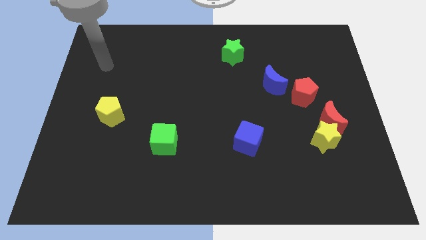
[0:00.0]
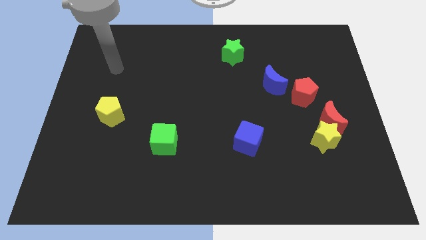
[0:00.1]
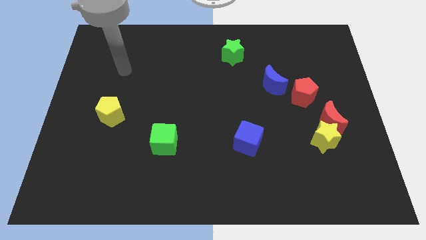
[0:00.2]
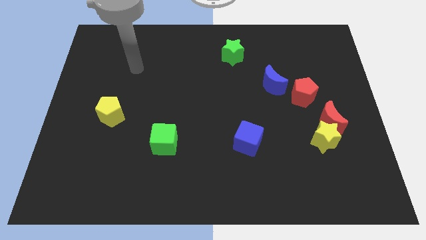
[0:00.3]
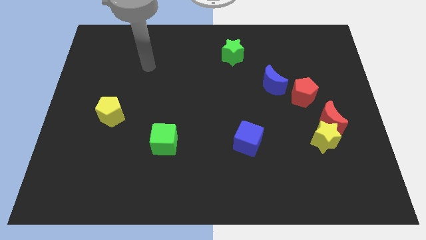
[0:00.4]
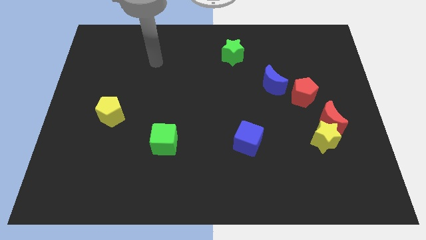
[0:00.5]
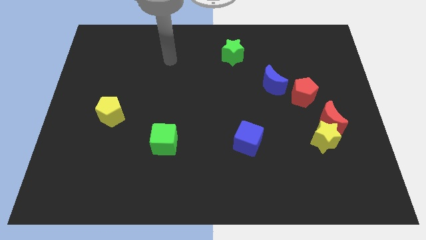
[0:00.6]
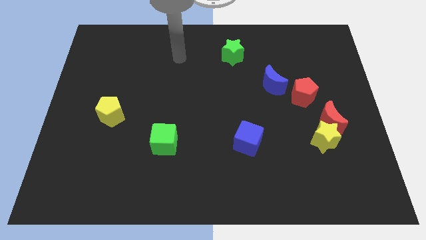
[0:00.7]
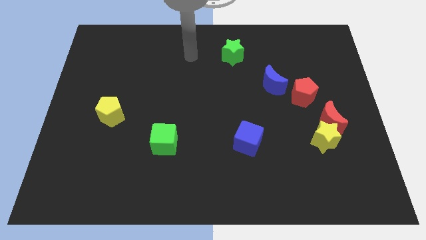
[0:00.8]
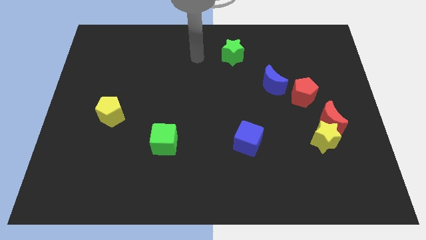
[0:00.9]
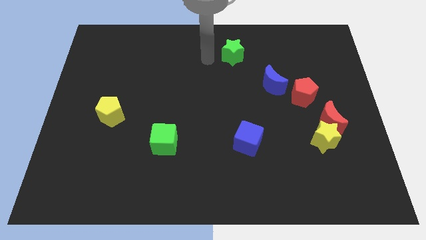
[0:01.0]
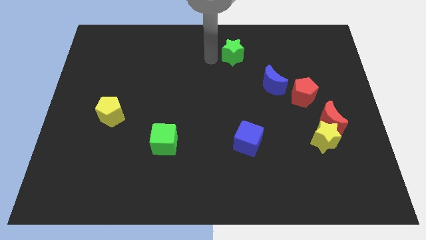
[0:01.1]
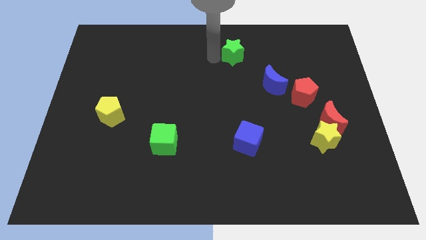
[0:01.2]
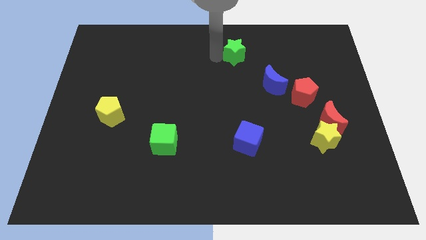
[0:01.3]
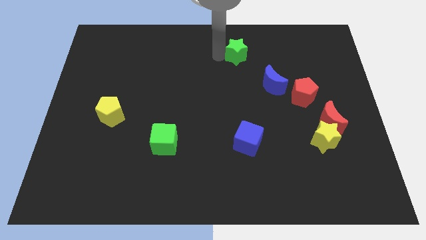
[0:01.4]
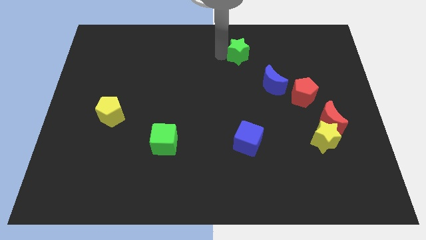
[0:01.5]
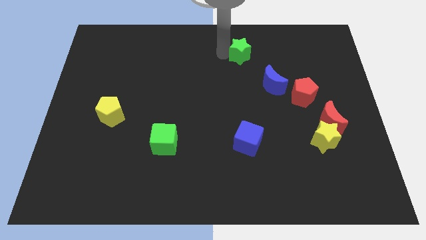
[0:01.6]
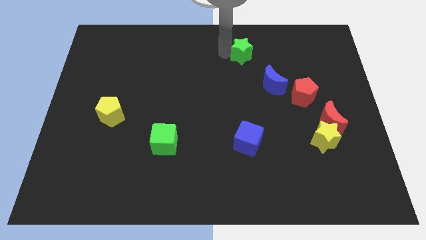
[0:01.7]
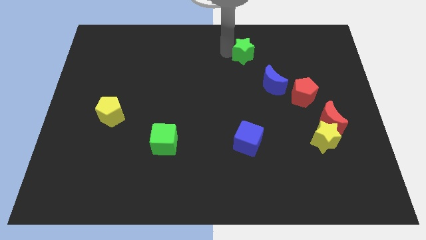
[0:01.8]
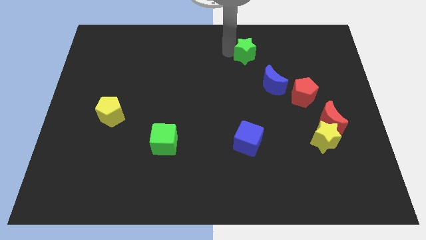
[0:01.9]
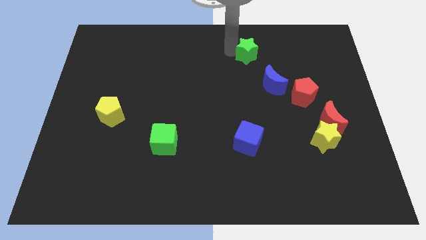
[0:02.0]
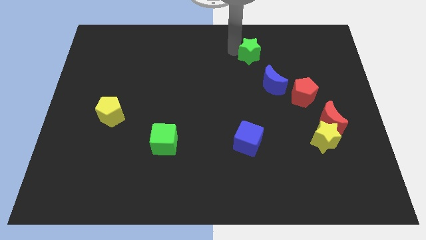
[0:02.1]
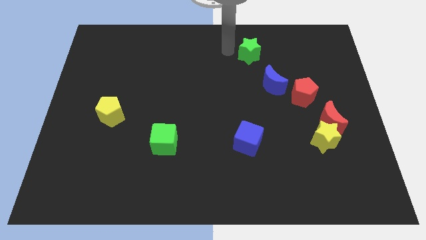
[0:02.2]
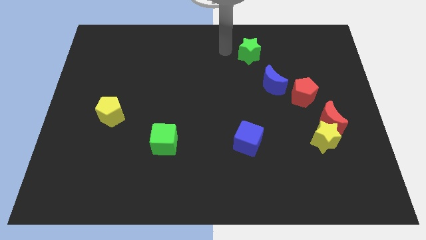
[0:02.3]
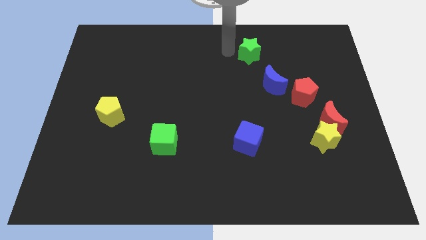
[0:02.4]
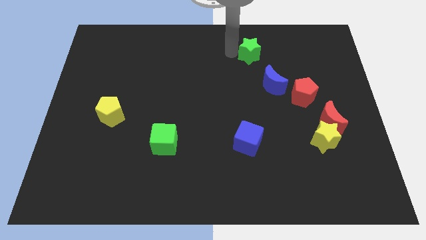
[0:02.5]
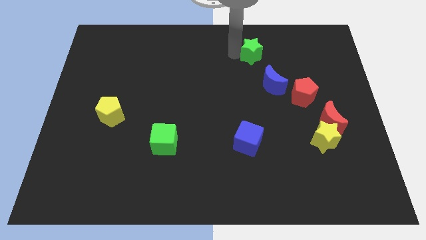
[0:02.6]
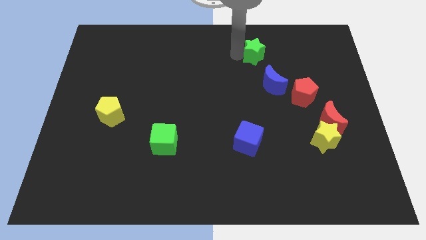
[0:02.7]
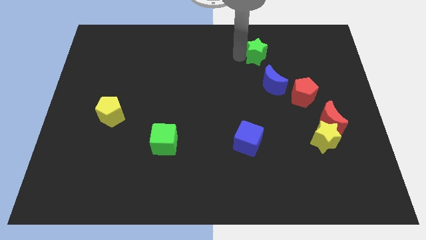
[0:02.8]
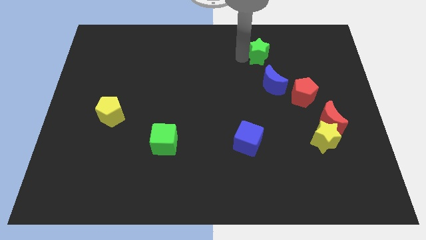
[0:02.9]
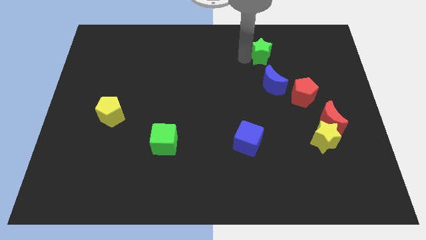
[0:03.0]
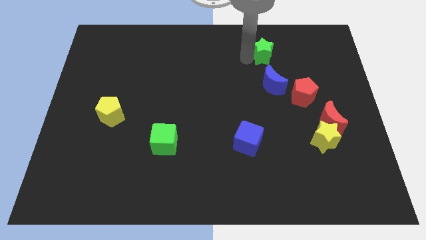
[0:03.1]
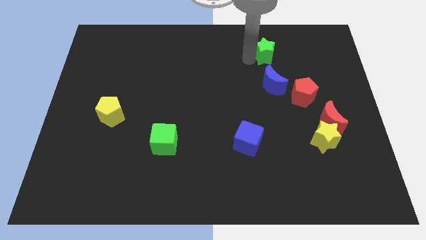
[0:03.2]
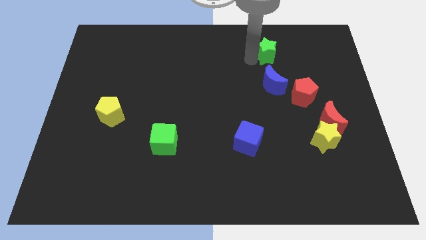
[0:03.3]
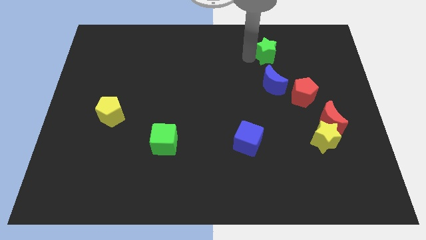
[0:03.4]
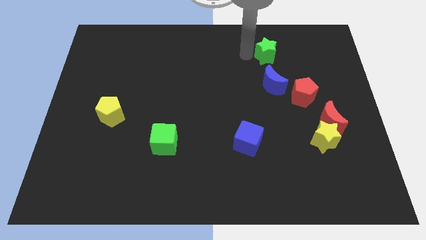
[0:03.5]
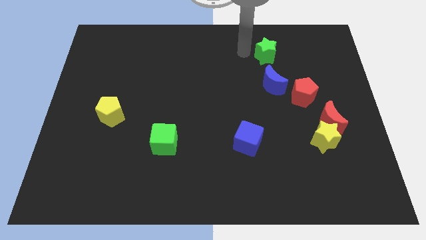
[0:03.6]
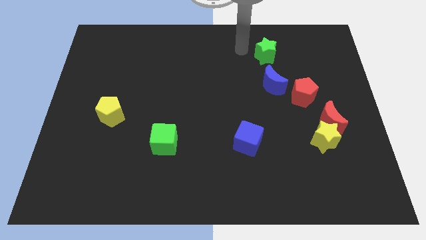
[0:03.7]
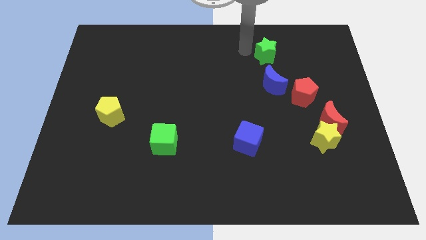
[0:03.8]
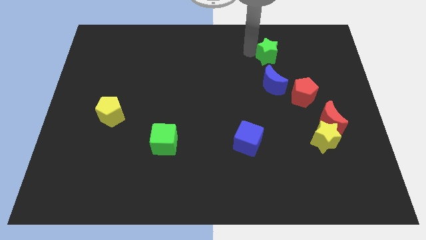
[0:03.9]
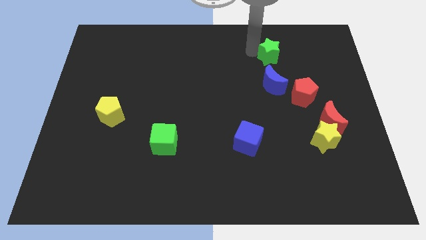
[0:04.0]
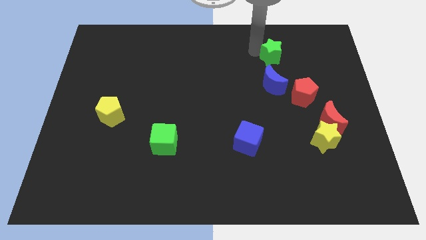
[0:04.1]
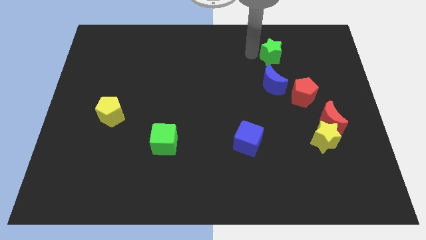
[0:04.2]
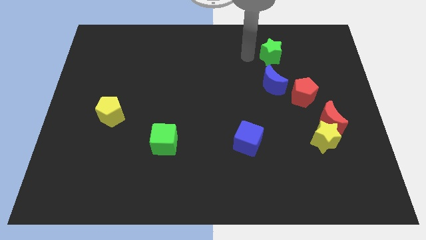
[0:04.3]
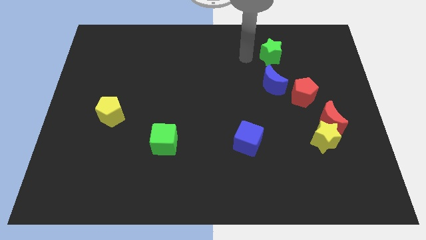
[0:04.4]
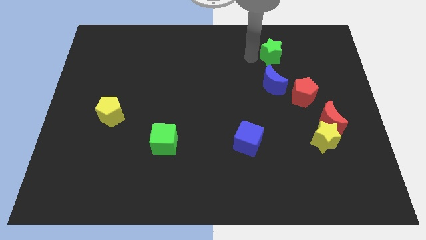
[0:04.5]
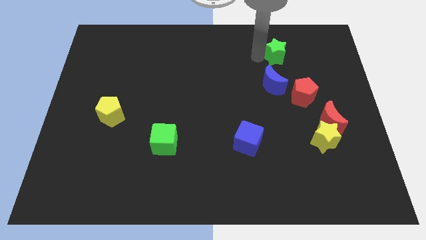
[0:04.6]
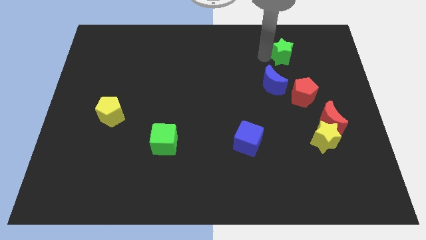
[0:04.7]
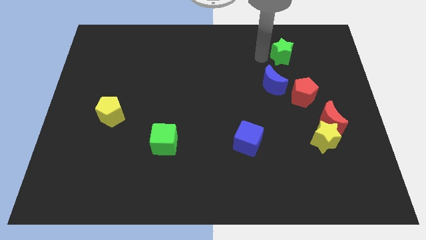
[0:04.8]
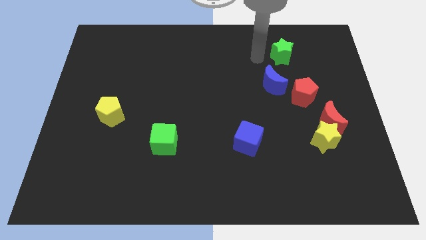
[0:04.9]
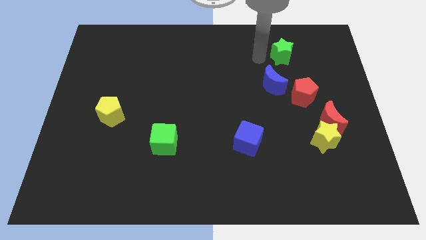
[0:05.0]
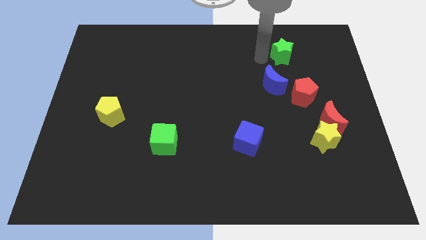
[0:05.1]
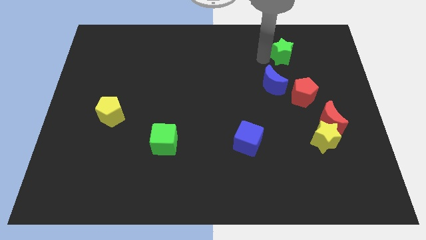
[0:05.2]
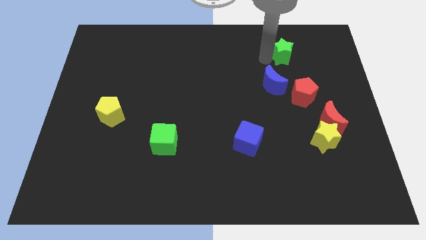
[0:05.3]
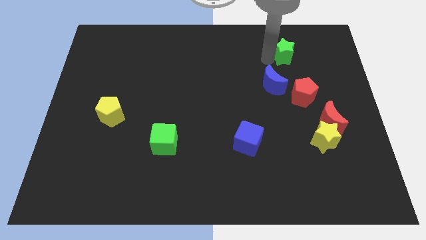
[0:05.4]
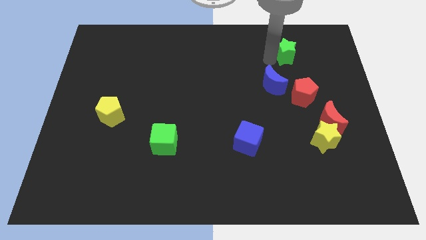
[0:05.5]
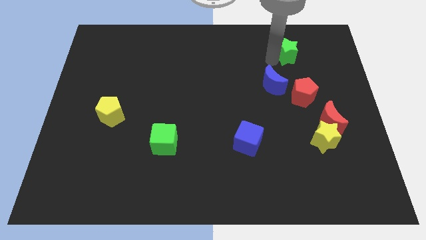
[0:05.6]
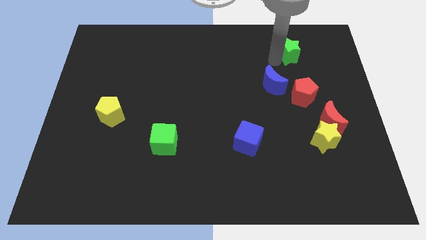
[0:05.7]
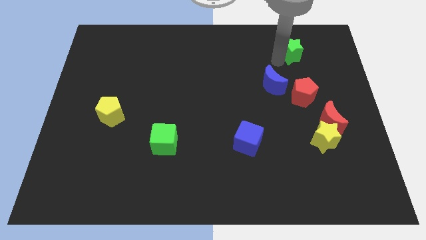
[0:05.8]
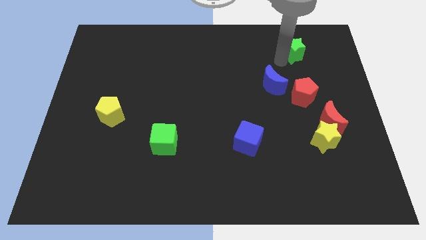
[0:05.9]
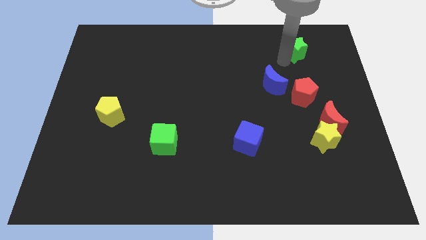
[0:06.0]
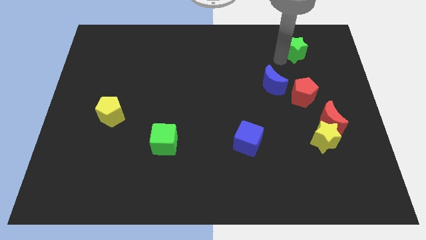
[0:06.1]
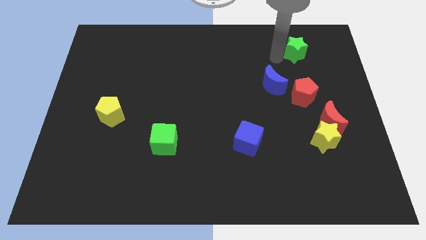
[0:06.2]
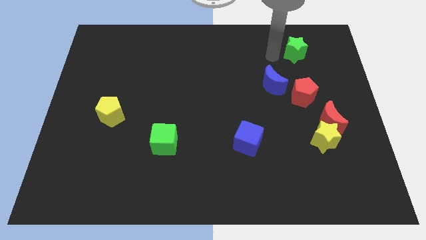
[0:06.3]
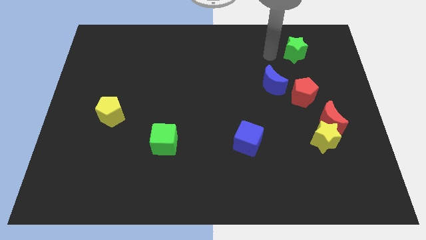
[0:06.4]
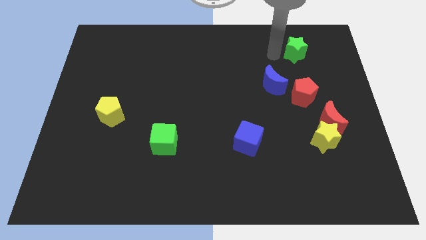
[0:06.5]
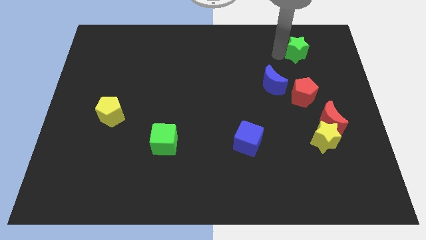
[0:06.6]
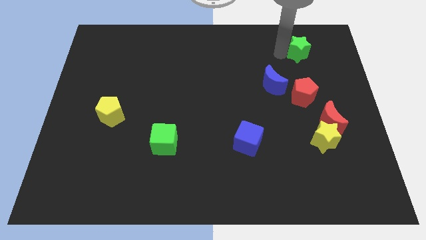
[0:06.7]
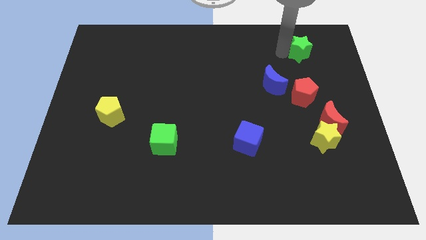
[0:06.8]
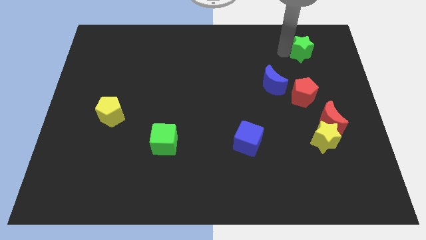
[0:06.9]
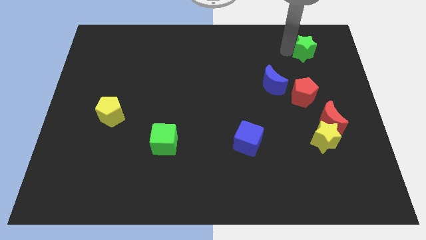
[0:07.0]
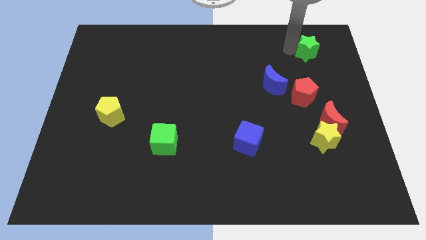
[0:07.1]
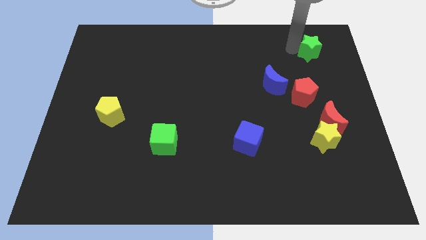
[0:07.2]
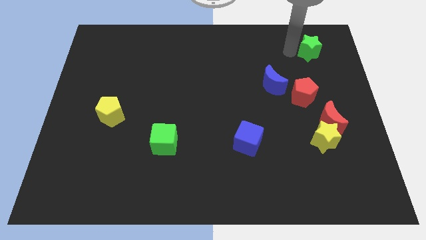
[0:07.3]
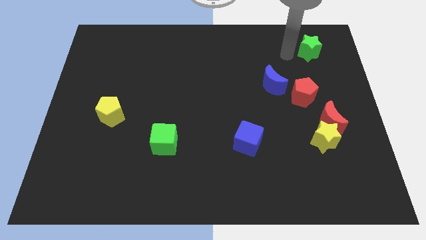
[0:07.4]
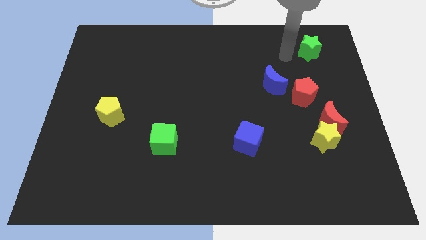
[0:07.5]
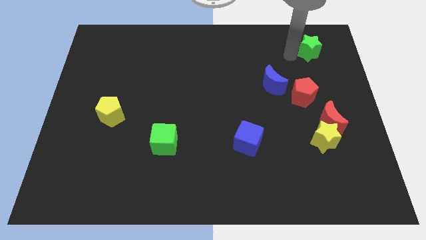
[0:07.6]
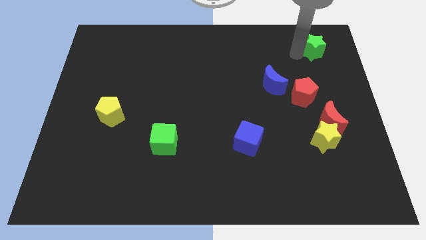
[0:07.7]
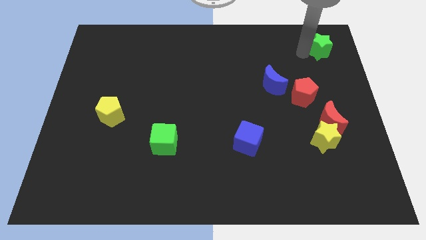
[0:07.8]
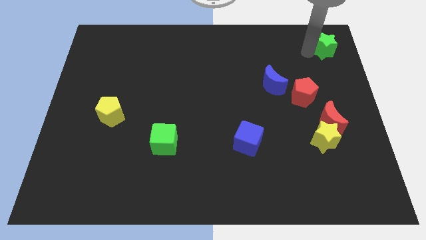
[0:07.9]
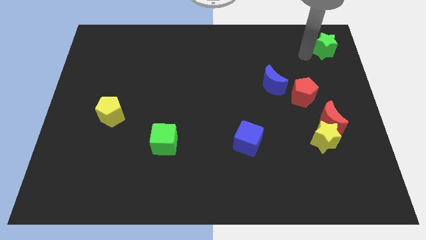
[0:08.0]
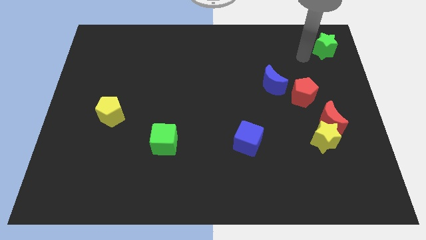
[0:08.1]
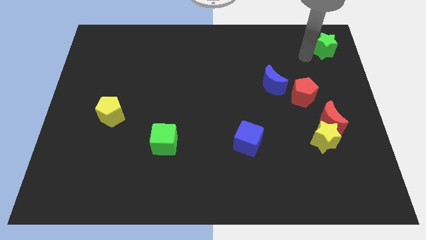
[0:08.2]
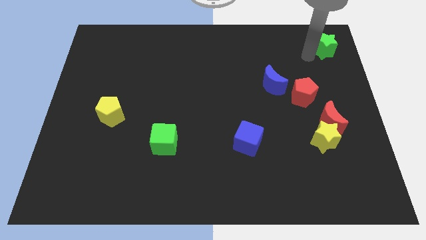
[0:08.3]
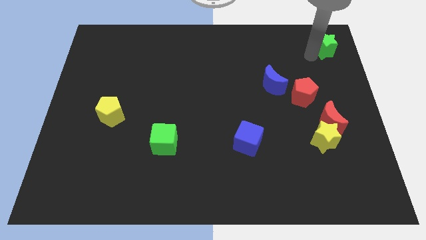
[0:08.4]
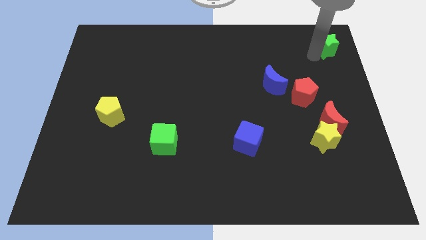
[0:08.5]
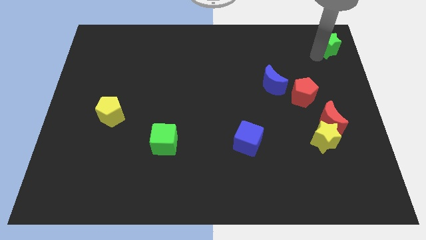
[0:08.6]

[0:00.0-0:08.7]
put the green star to the upper right corner
